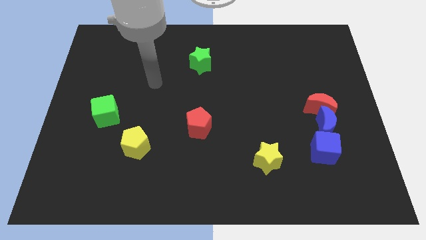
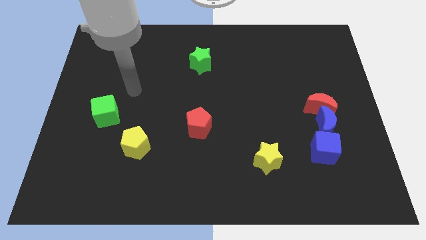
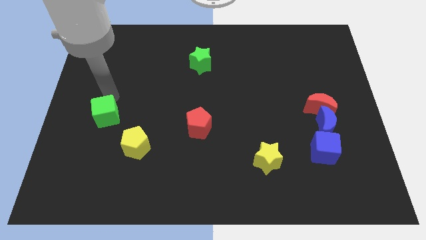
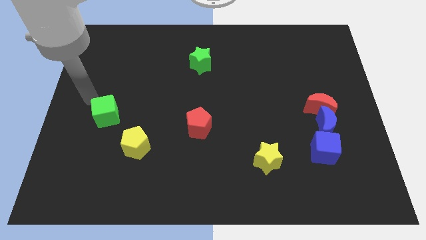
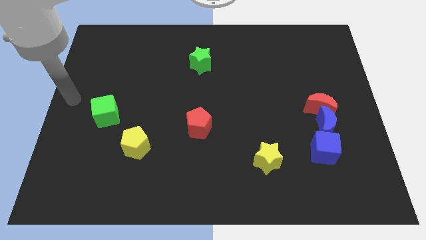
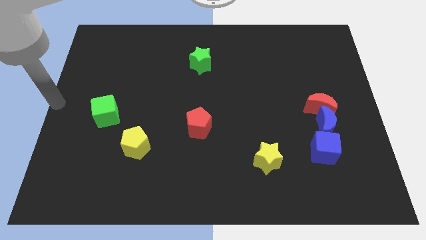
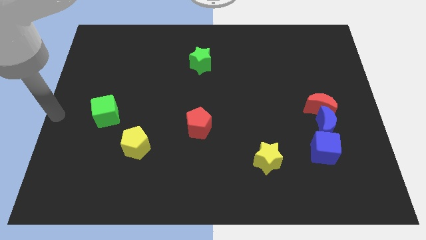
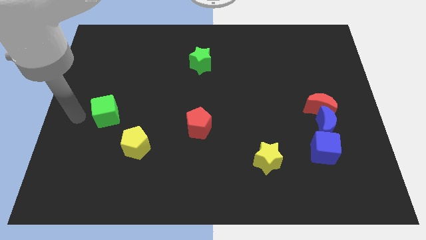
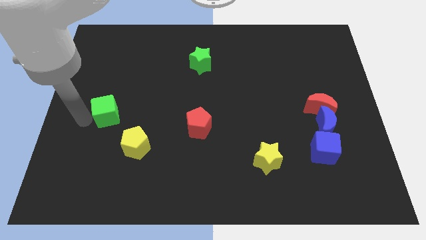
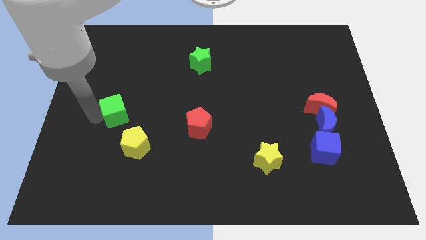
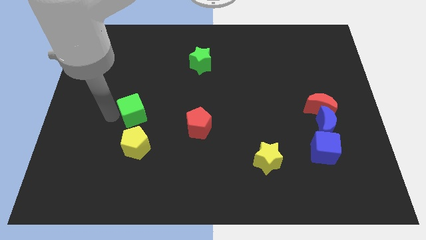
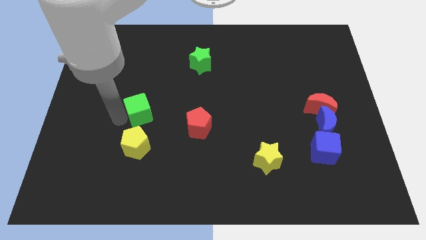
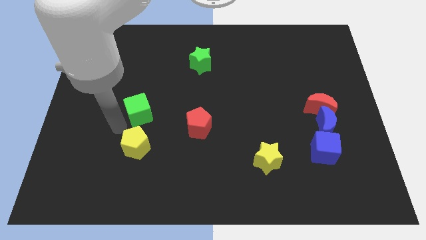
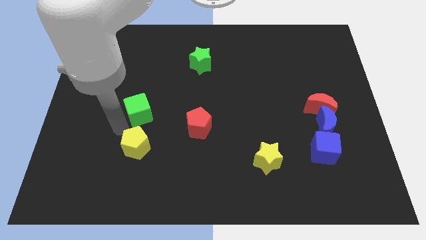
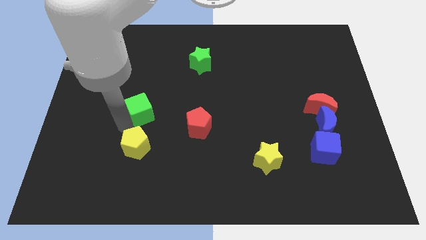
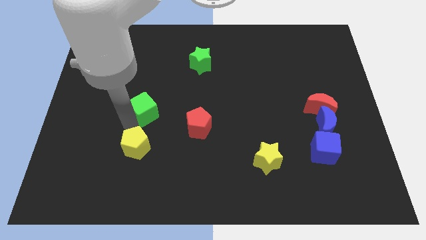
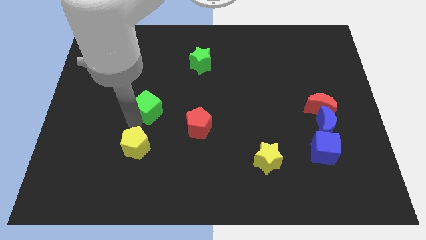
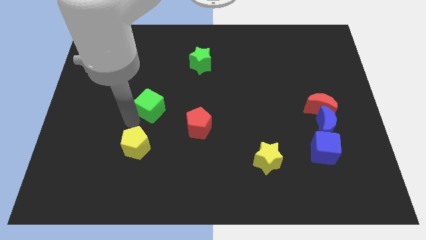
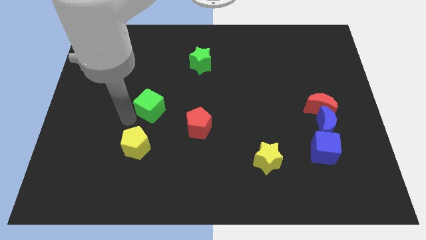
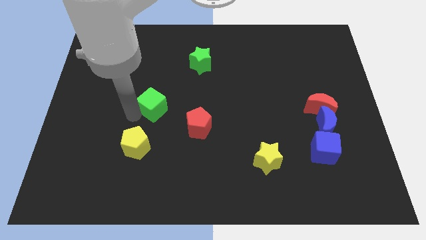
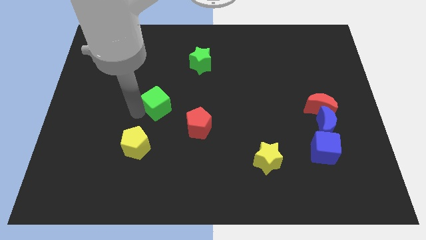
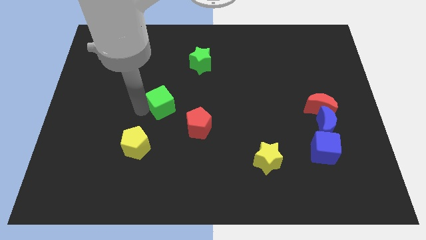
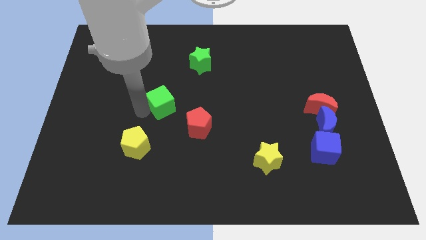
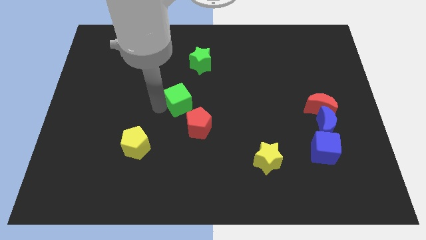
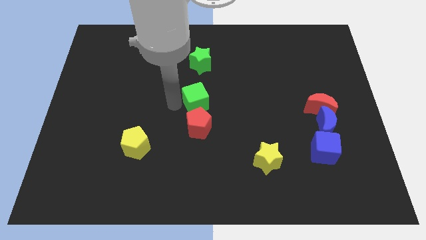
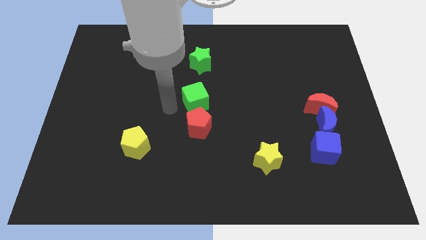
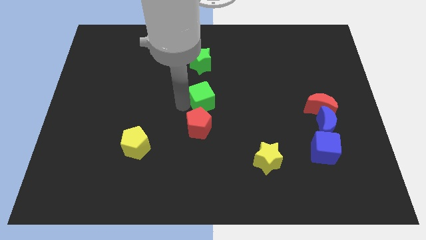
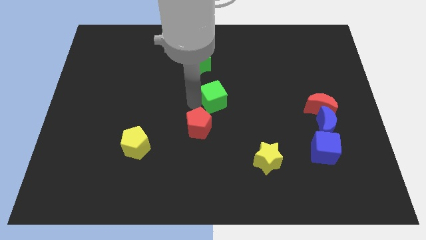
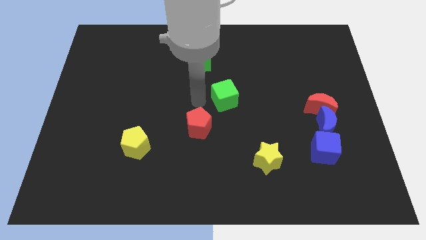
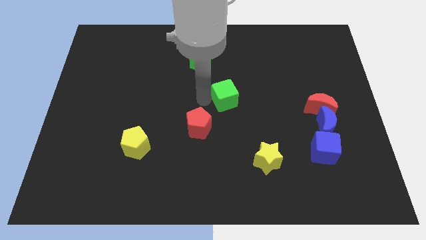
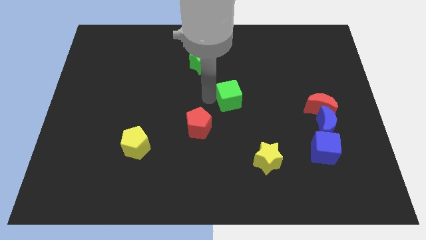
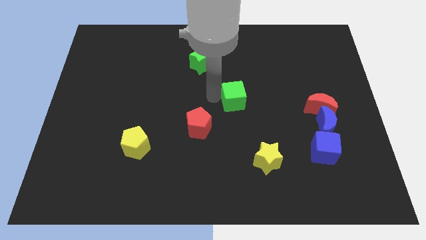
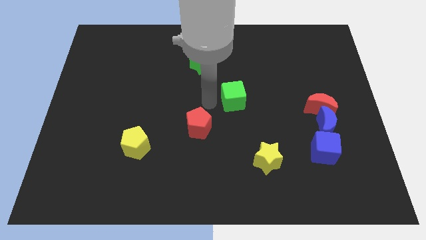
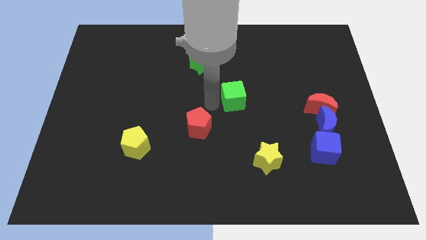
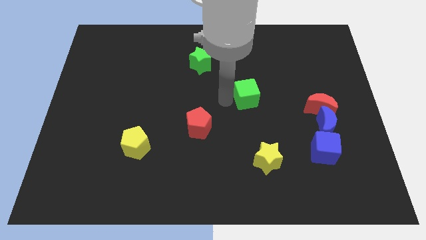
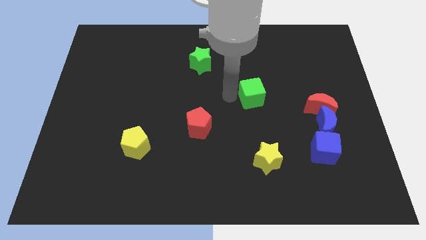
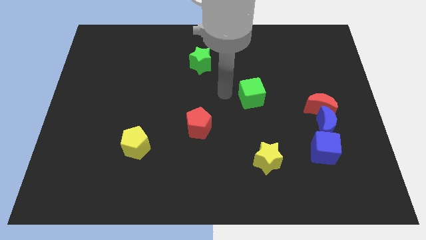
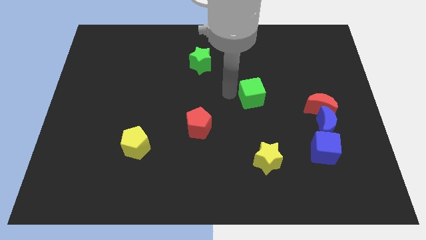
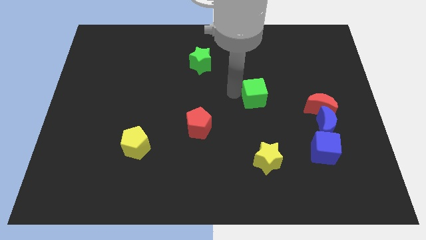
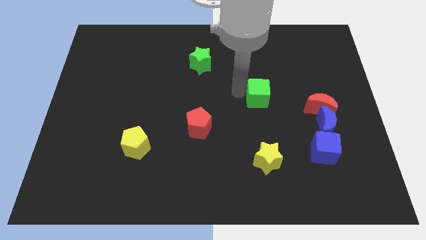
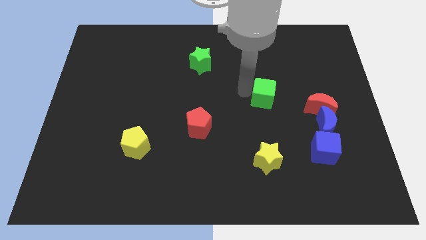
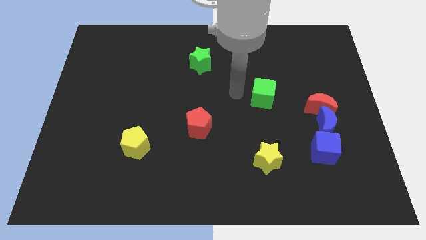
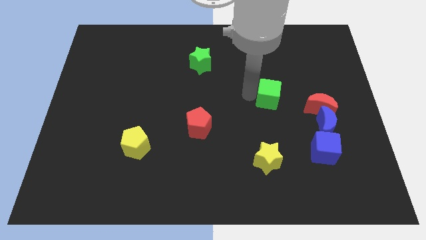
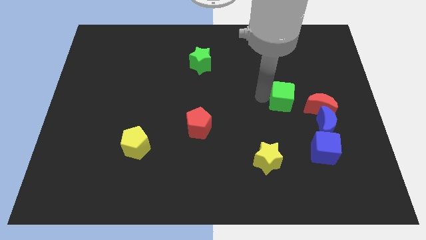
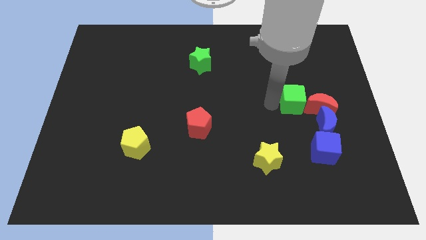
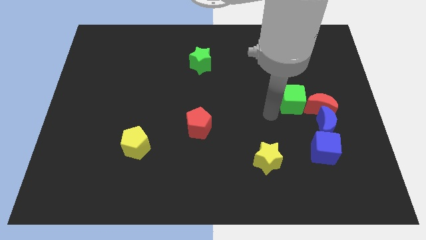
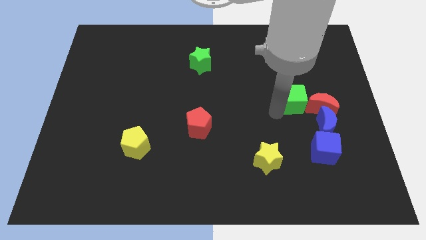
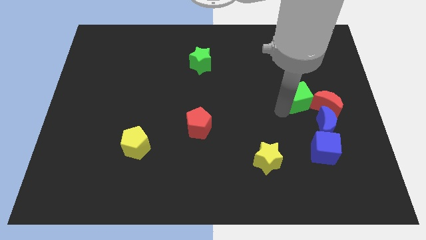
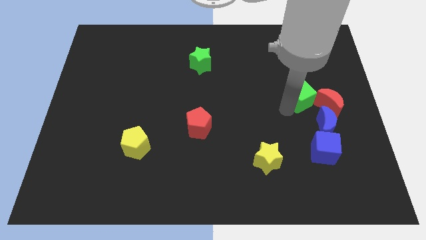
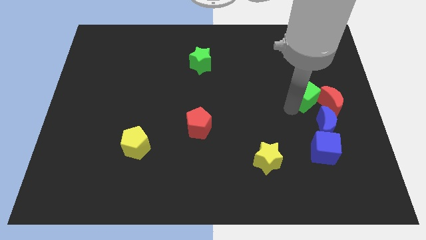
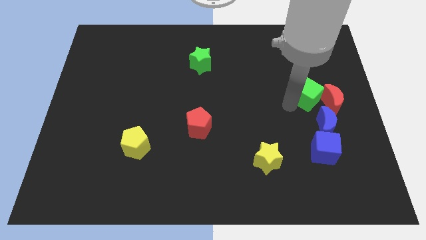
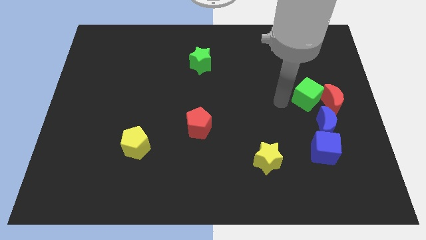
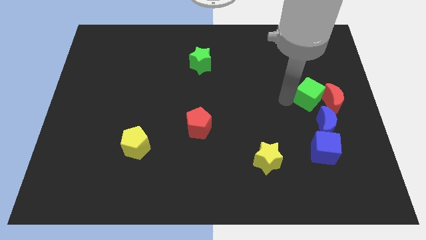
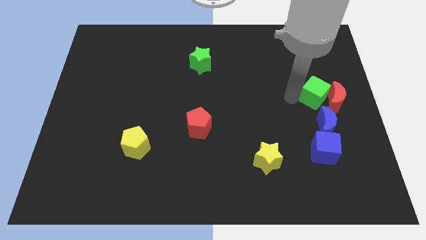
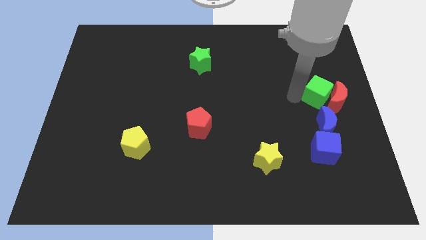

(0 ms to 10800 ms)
slide the green cube to the center right

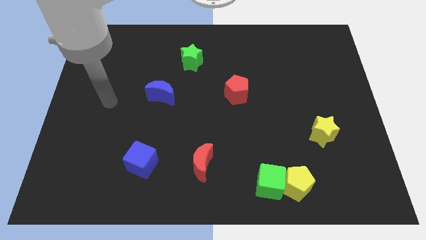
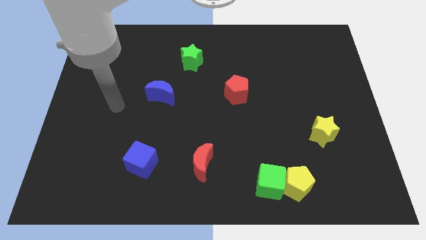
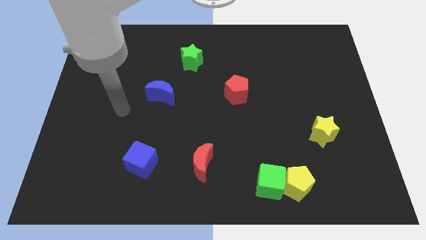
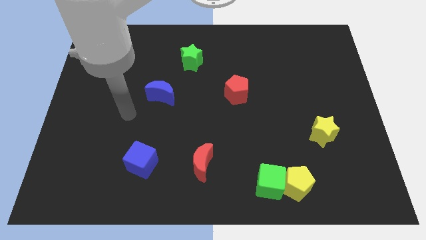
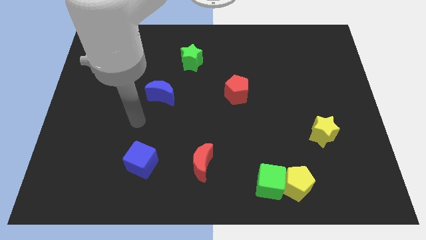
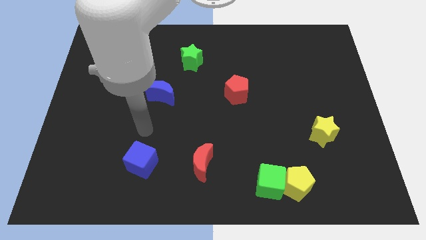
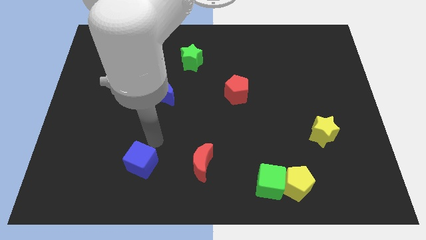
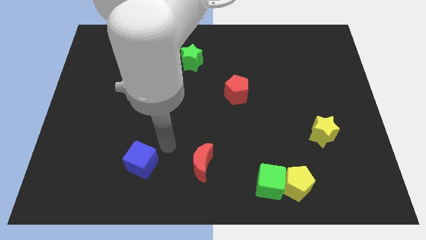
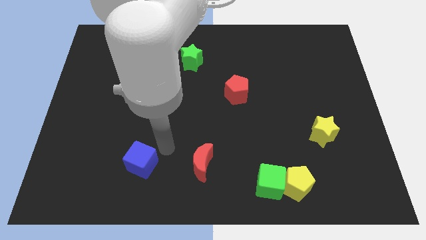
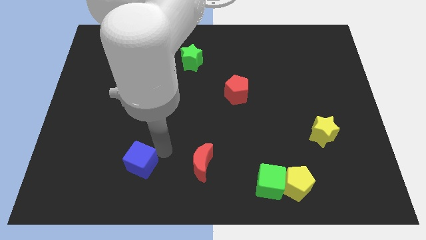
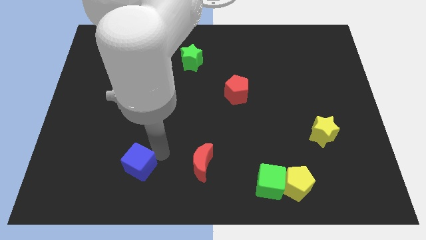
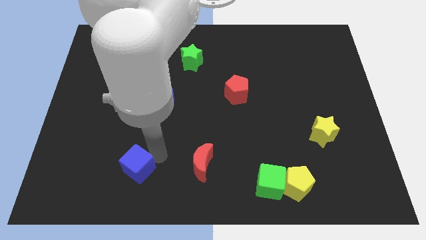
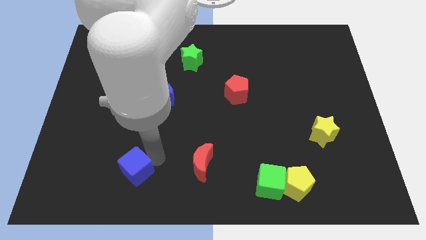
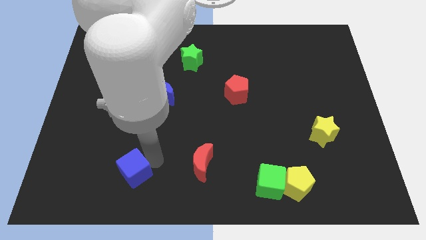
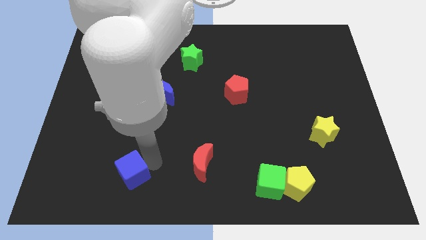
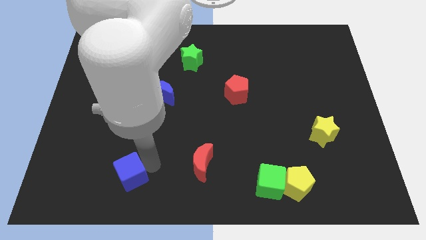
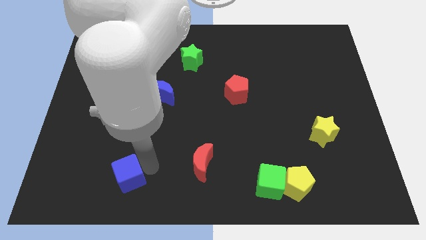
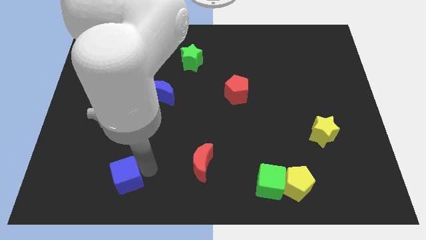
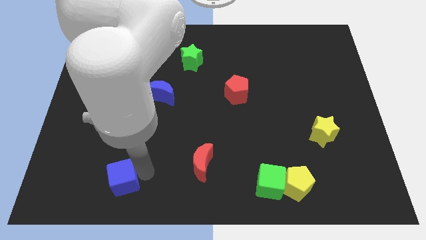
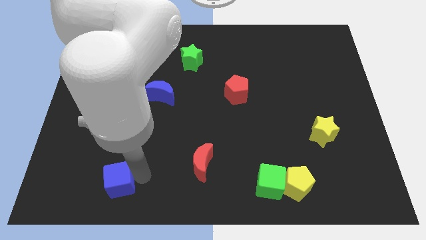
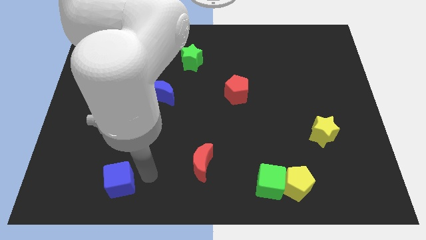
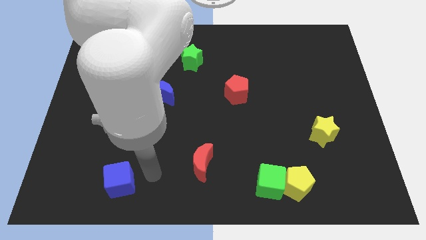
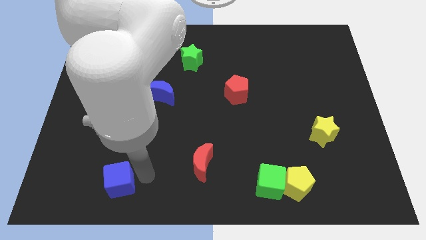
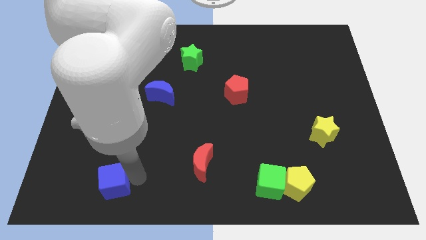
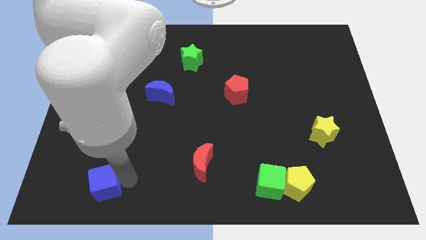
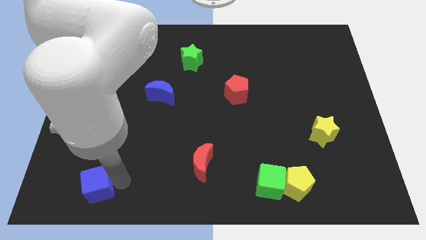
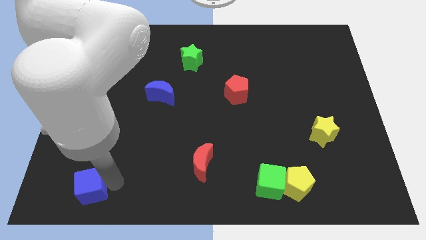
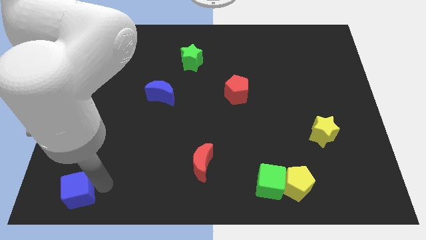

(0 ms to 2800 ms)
move the blue cube to the bottom left
